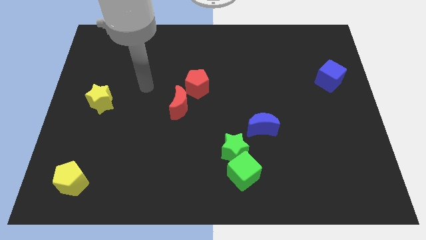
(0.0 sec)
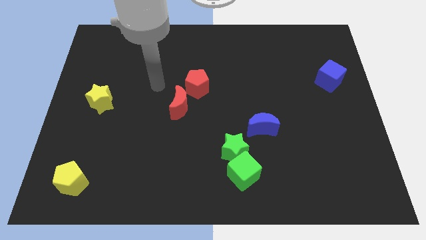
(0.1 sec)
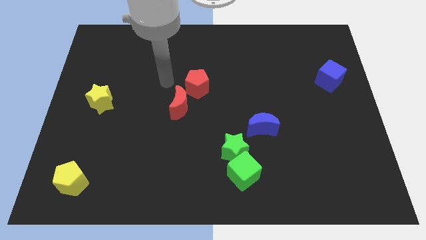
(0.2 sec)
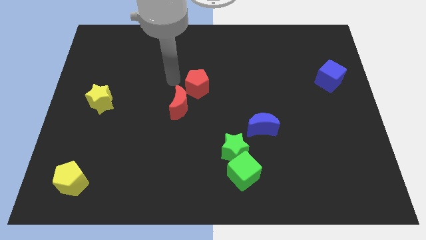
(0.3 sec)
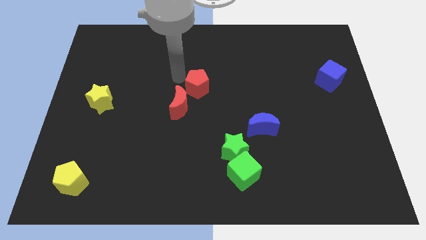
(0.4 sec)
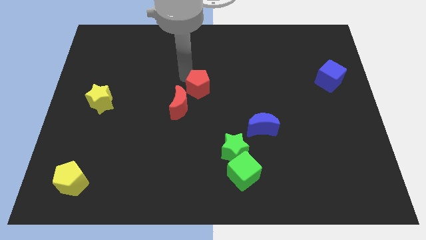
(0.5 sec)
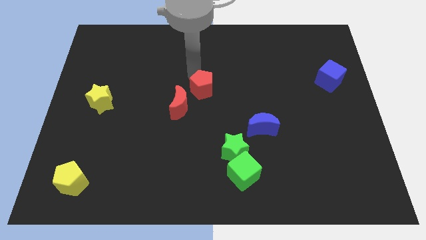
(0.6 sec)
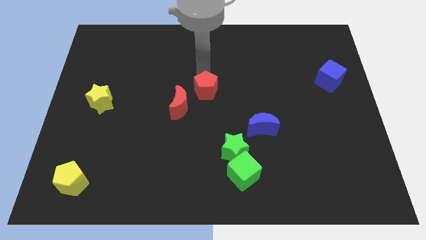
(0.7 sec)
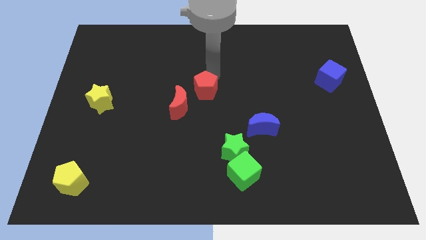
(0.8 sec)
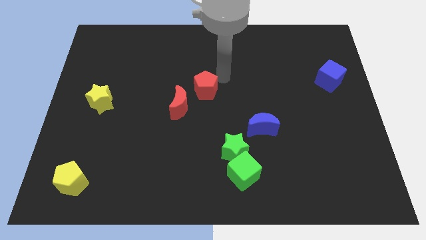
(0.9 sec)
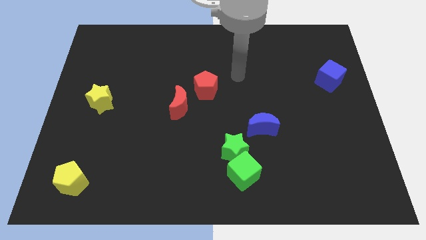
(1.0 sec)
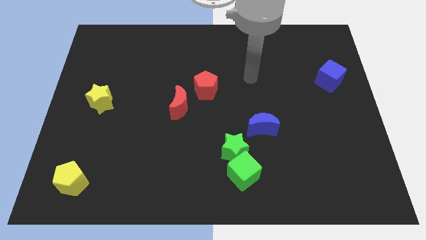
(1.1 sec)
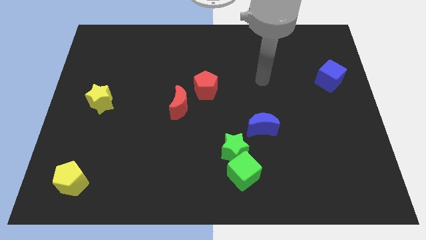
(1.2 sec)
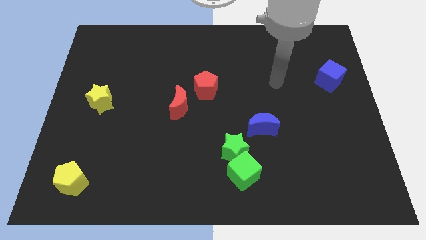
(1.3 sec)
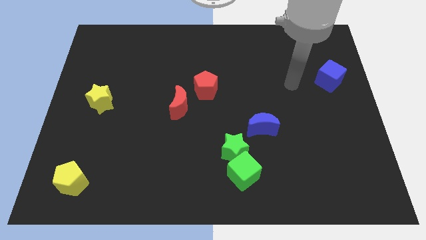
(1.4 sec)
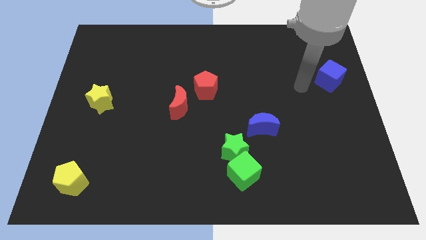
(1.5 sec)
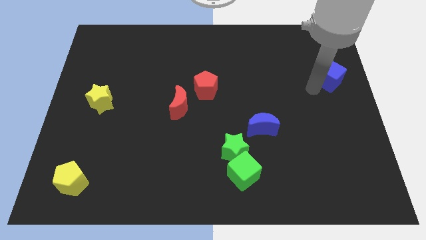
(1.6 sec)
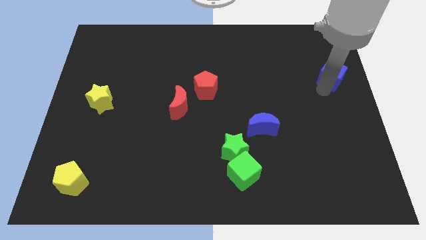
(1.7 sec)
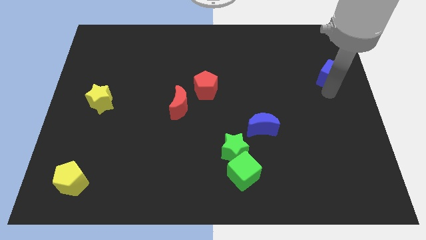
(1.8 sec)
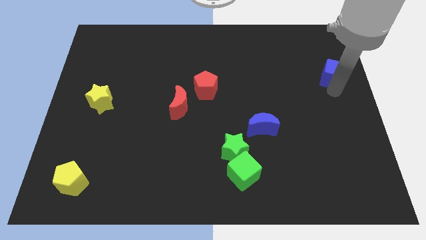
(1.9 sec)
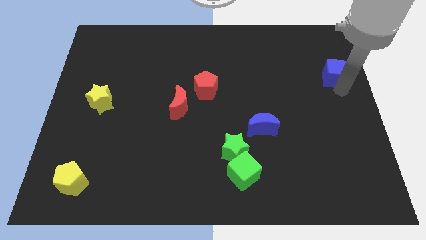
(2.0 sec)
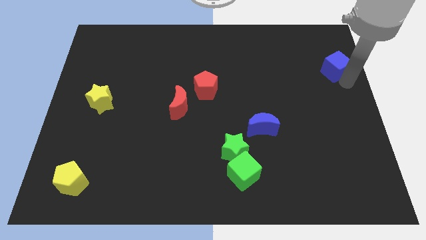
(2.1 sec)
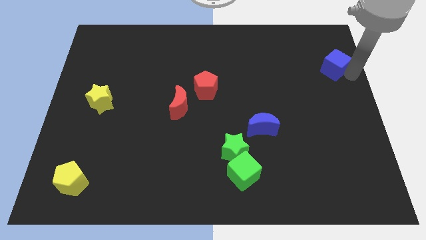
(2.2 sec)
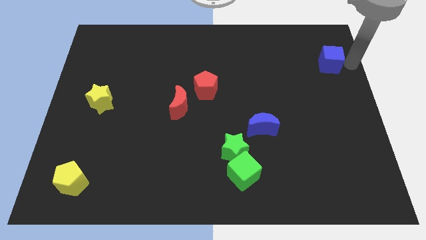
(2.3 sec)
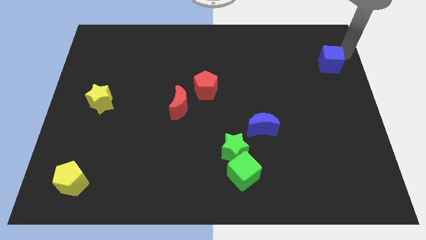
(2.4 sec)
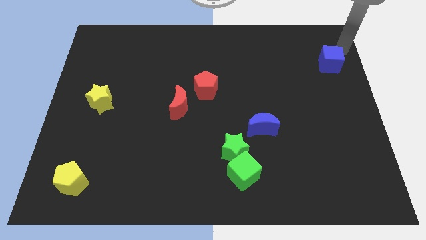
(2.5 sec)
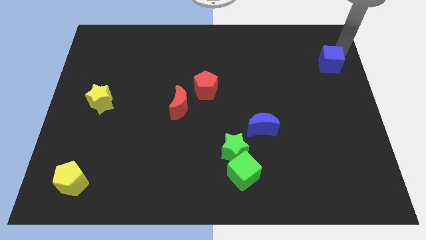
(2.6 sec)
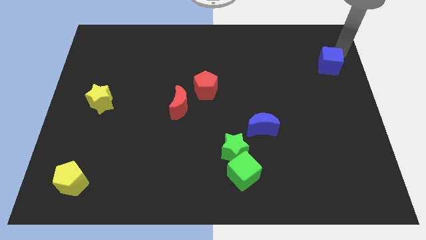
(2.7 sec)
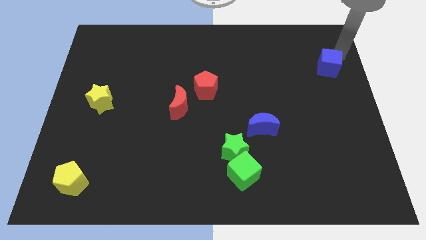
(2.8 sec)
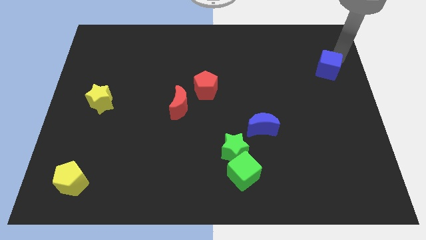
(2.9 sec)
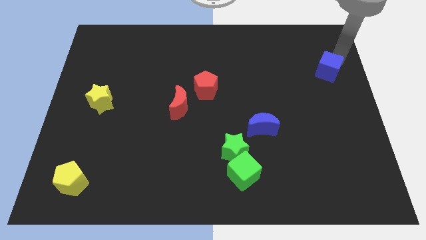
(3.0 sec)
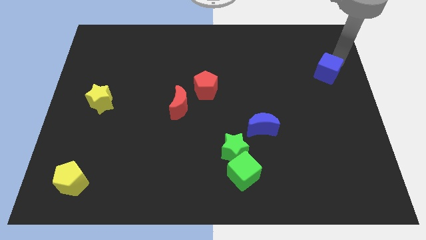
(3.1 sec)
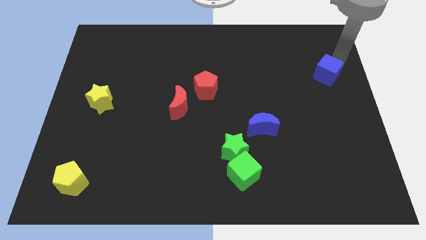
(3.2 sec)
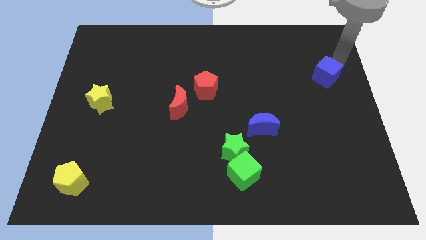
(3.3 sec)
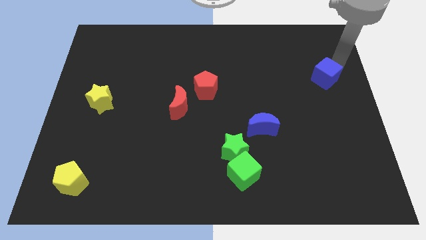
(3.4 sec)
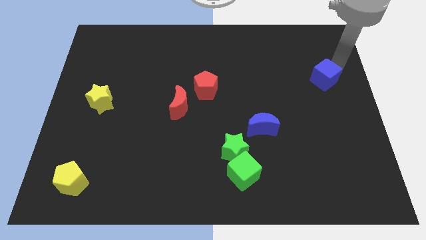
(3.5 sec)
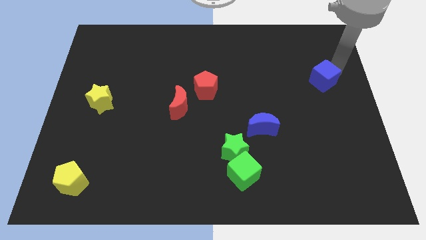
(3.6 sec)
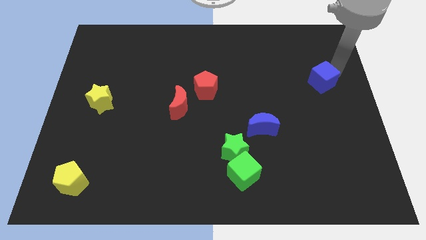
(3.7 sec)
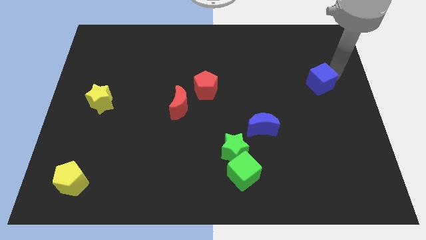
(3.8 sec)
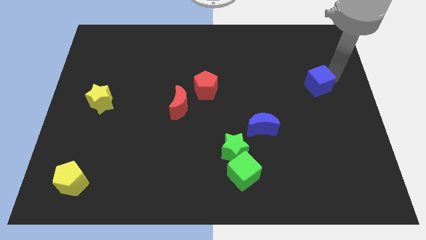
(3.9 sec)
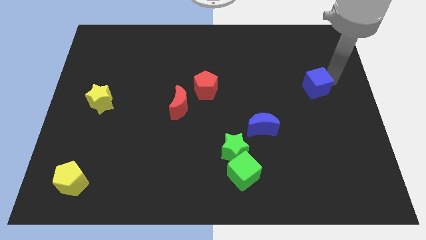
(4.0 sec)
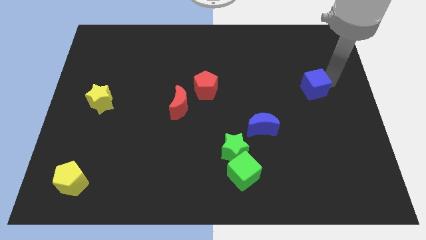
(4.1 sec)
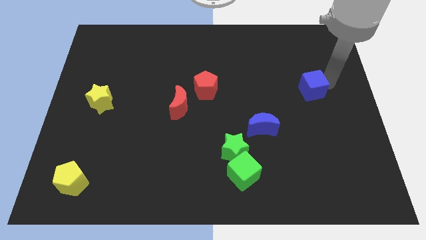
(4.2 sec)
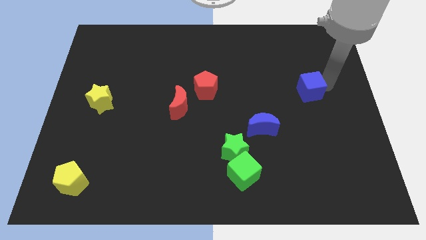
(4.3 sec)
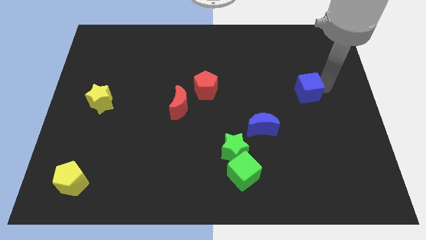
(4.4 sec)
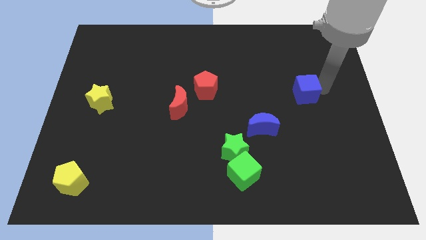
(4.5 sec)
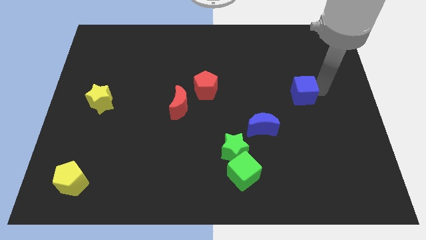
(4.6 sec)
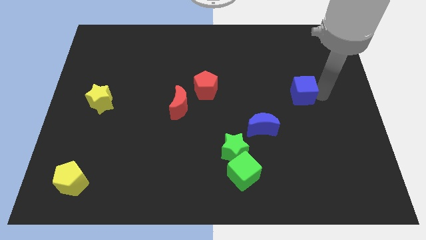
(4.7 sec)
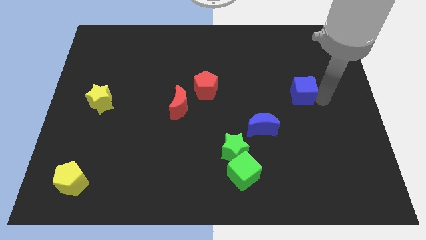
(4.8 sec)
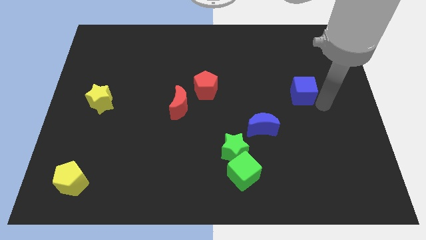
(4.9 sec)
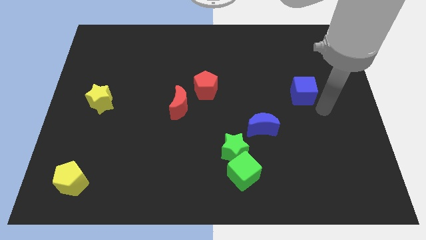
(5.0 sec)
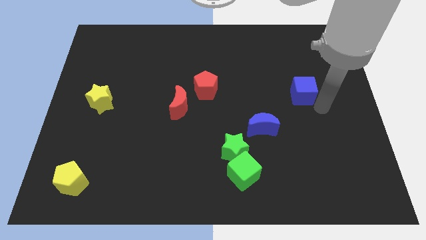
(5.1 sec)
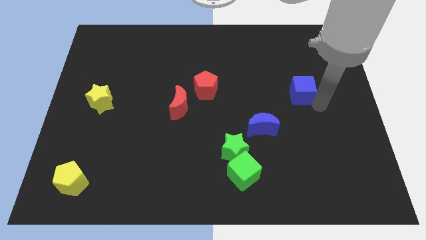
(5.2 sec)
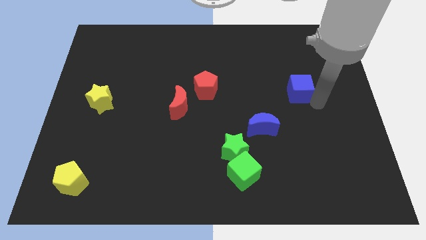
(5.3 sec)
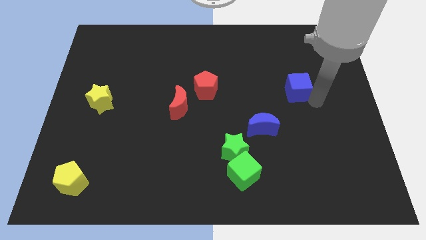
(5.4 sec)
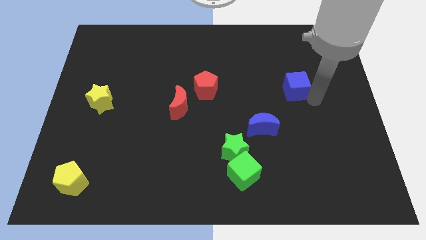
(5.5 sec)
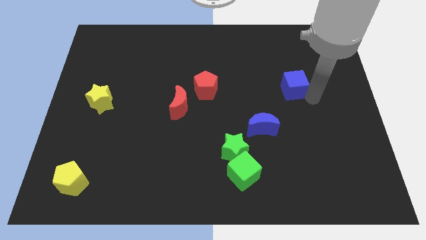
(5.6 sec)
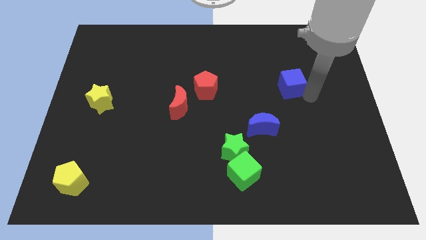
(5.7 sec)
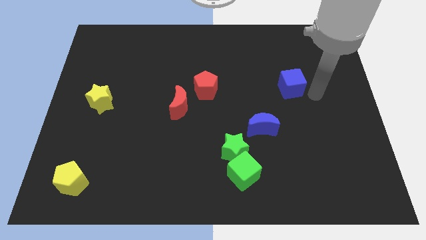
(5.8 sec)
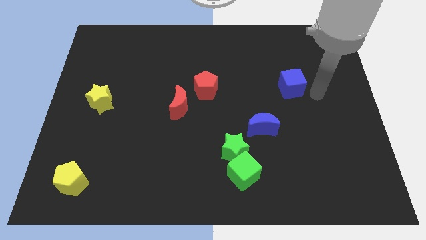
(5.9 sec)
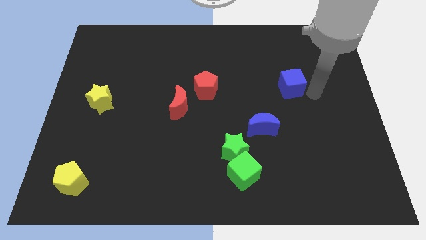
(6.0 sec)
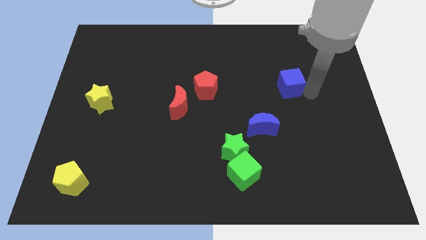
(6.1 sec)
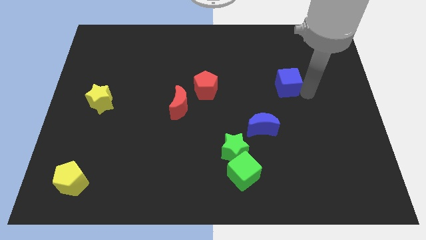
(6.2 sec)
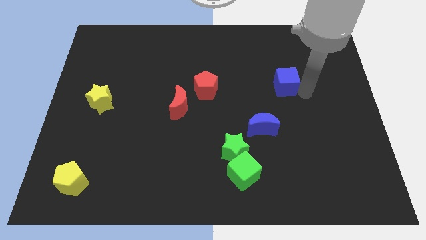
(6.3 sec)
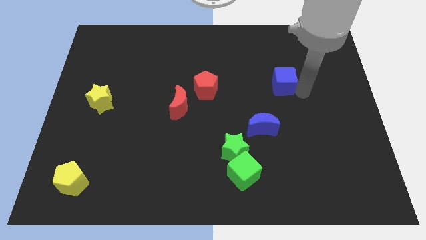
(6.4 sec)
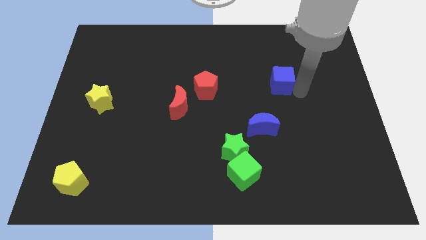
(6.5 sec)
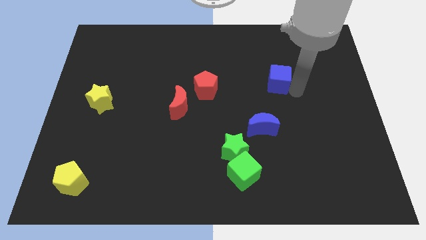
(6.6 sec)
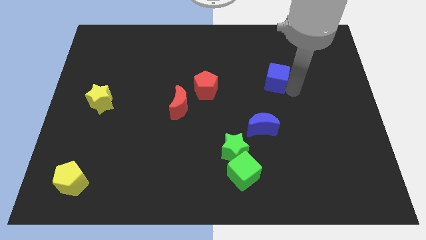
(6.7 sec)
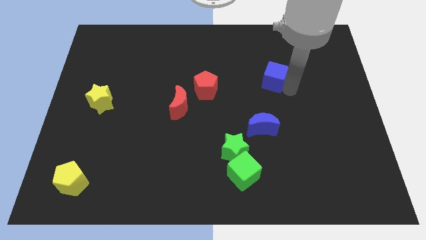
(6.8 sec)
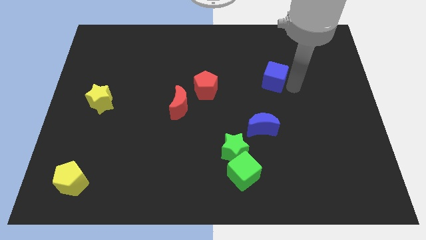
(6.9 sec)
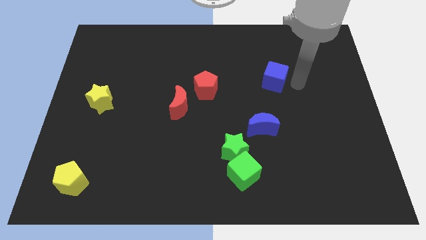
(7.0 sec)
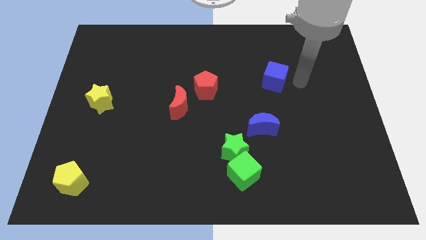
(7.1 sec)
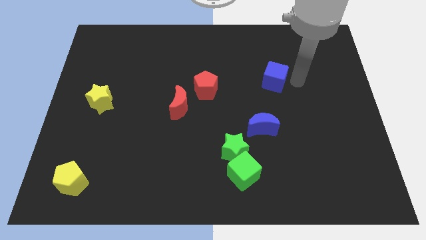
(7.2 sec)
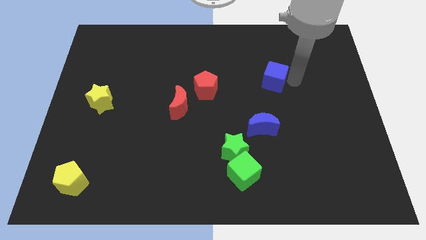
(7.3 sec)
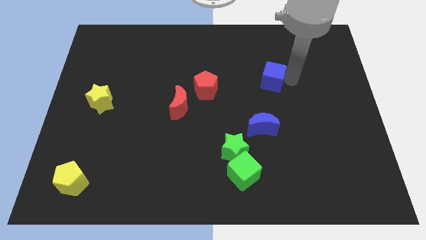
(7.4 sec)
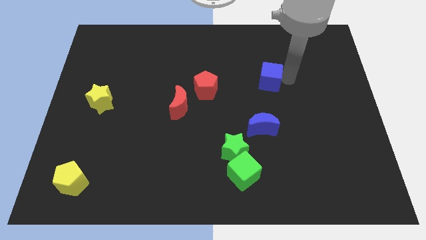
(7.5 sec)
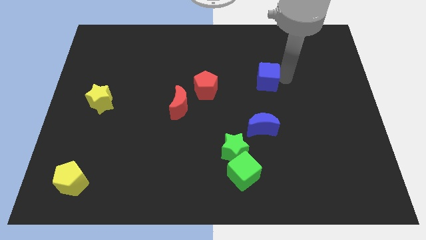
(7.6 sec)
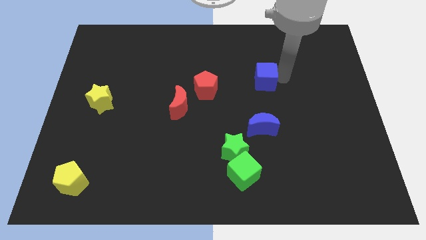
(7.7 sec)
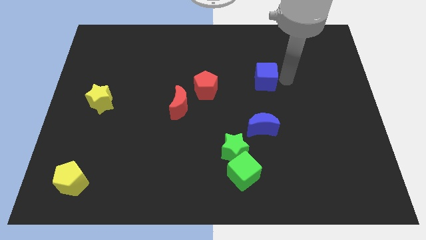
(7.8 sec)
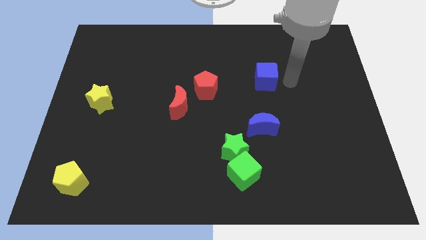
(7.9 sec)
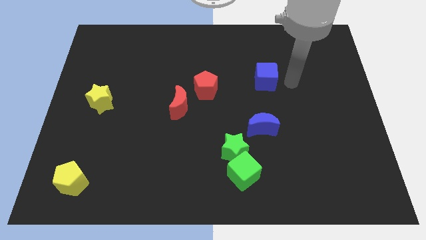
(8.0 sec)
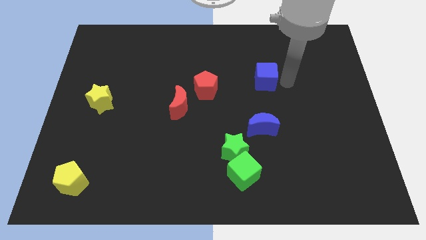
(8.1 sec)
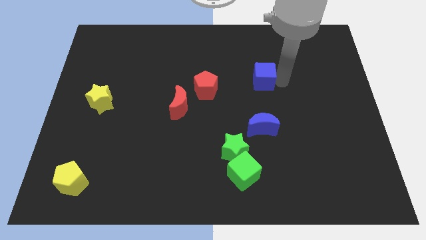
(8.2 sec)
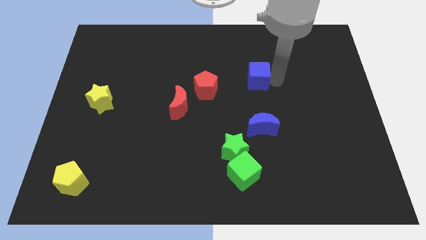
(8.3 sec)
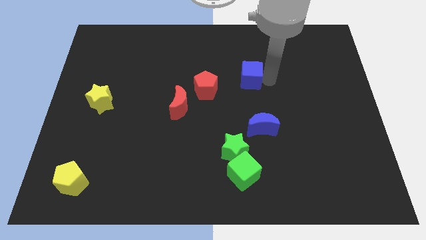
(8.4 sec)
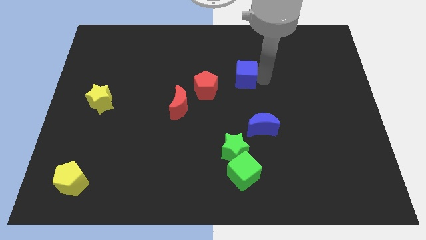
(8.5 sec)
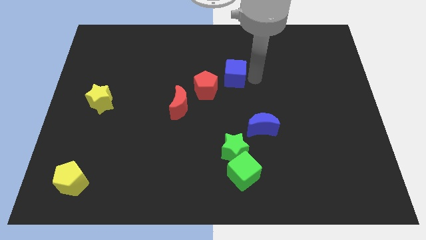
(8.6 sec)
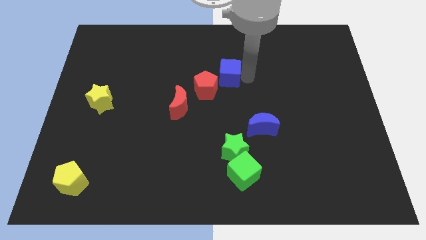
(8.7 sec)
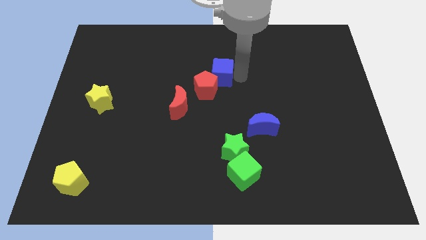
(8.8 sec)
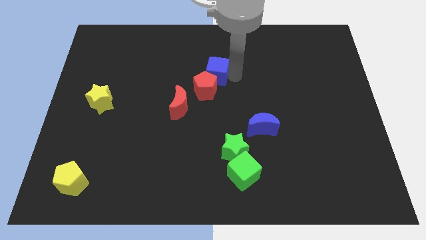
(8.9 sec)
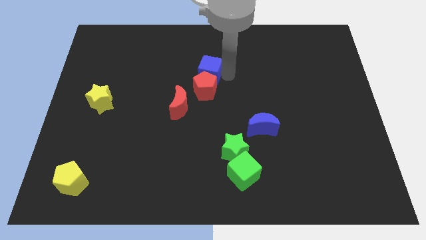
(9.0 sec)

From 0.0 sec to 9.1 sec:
put the blue cube to the top left side of the red pentagon
